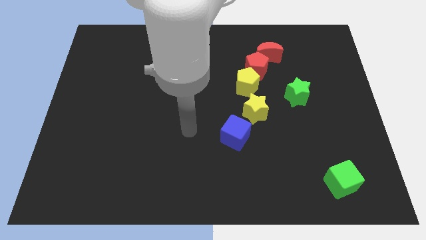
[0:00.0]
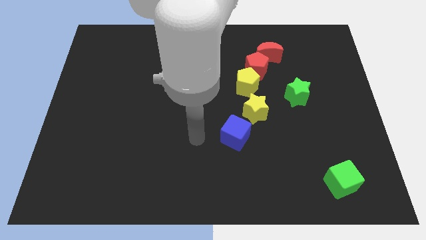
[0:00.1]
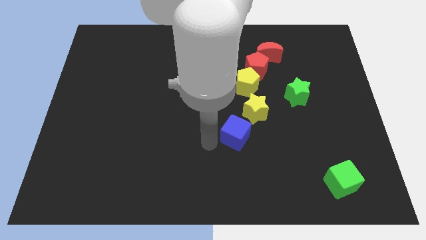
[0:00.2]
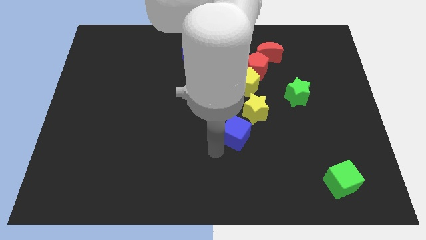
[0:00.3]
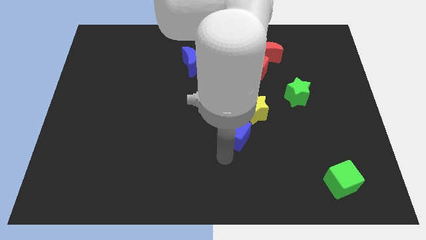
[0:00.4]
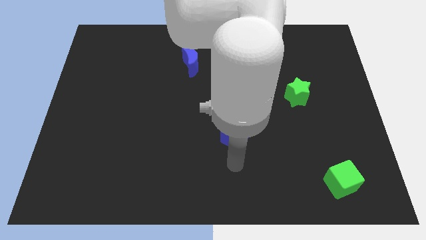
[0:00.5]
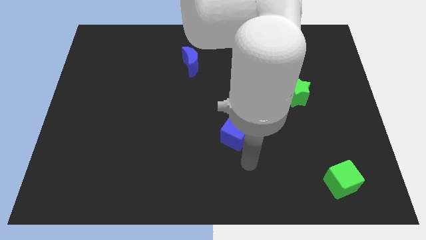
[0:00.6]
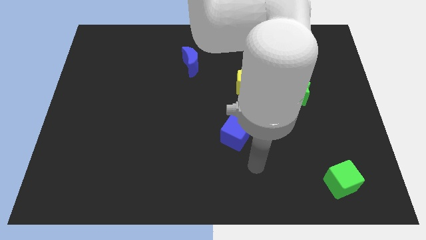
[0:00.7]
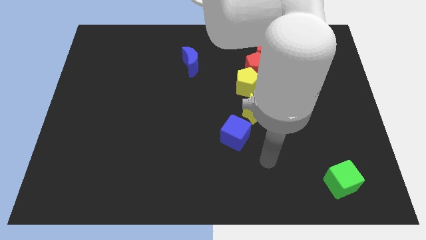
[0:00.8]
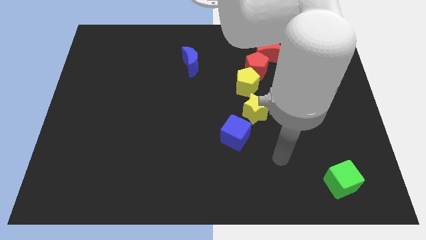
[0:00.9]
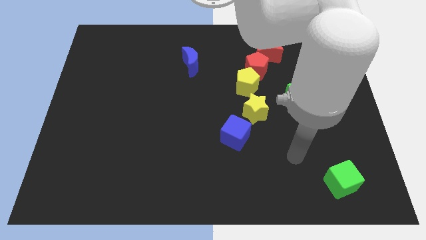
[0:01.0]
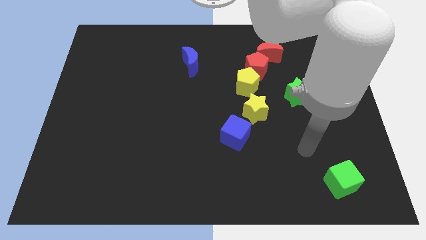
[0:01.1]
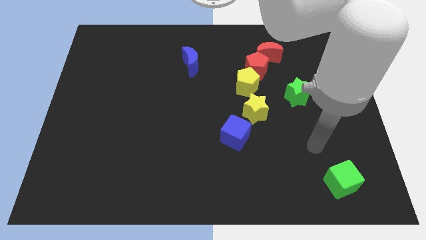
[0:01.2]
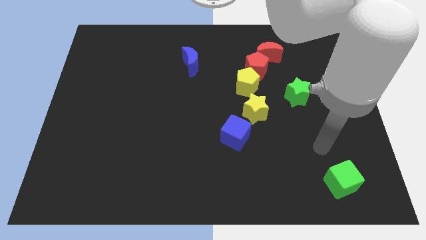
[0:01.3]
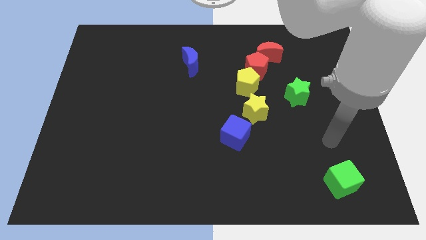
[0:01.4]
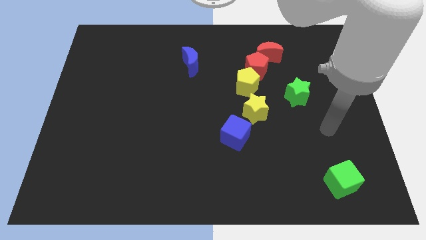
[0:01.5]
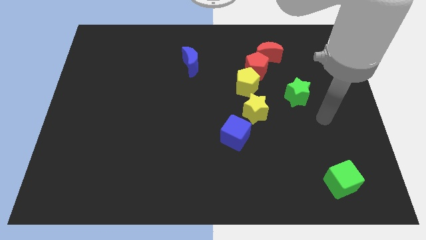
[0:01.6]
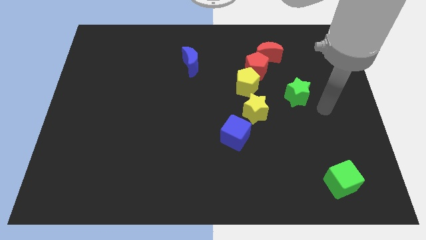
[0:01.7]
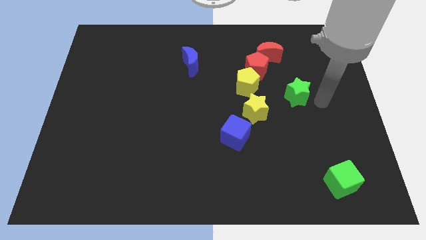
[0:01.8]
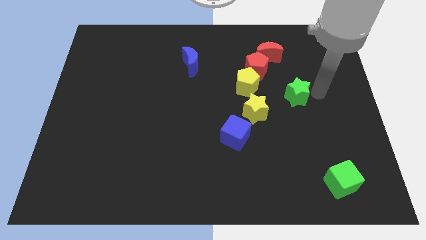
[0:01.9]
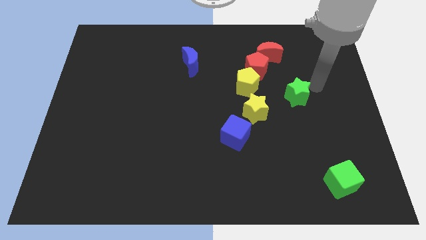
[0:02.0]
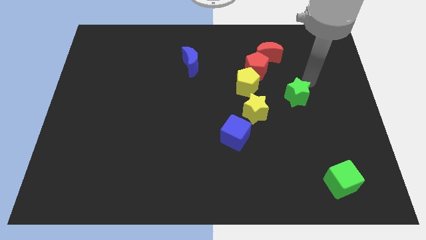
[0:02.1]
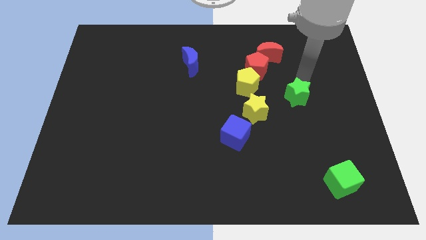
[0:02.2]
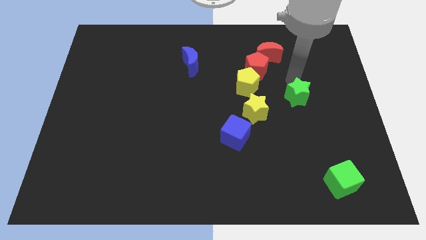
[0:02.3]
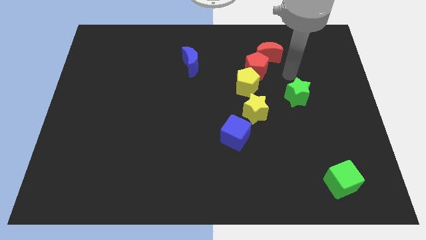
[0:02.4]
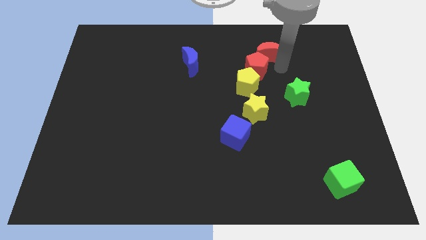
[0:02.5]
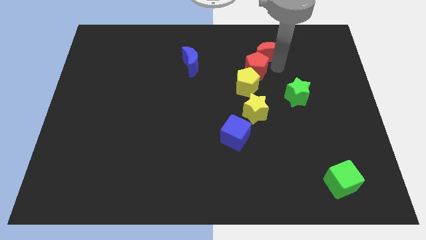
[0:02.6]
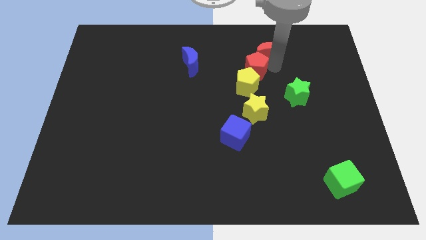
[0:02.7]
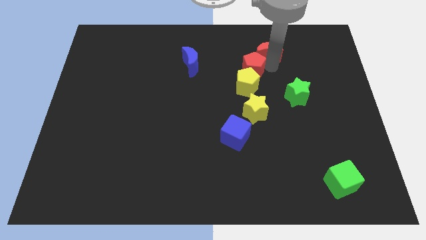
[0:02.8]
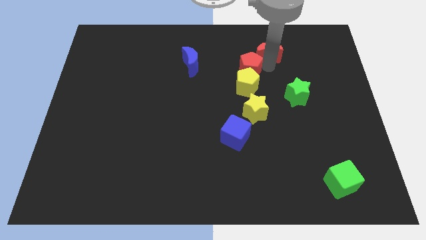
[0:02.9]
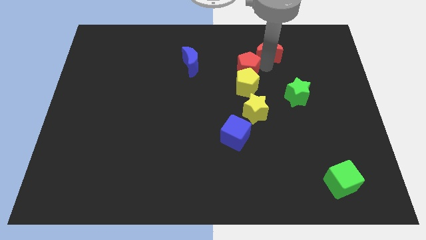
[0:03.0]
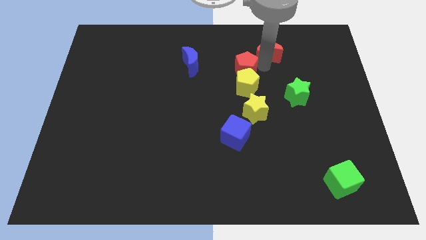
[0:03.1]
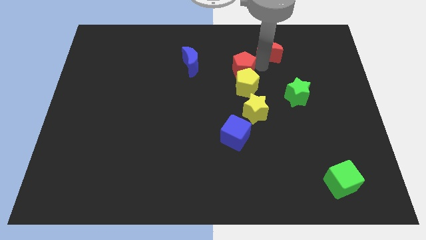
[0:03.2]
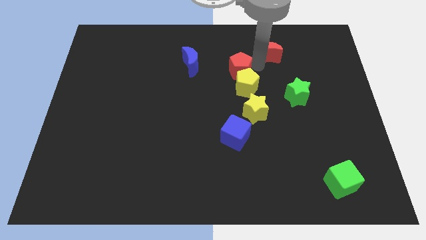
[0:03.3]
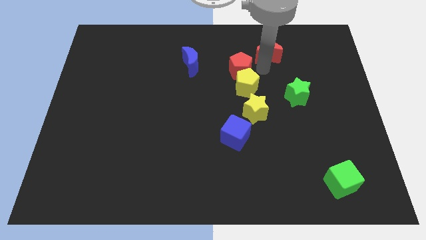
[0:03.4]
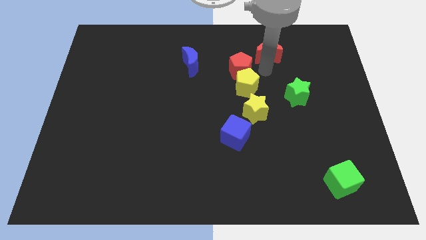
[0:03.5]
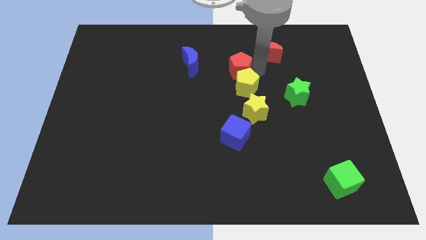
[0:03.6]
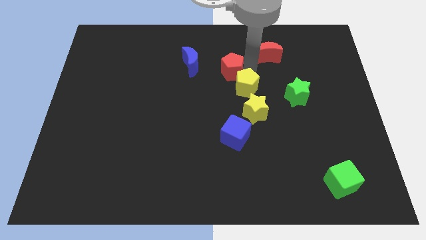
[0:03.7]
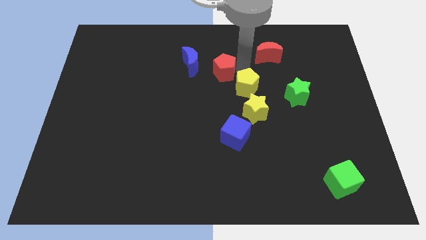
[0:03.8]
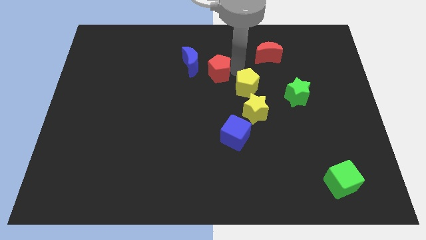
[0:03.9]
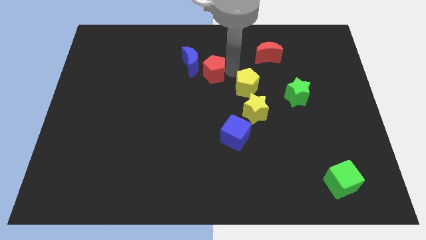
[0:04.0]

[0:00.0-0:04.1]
separate the red pentagon from the yellow pentagon and red moon

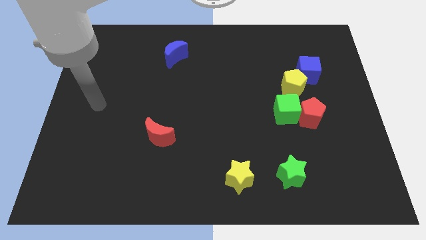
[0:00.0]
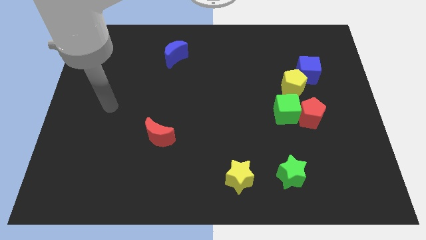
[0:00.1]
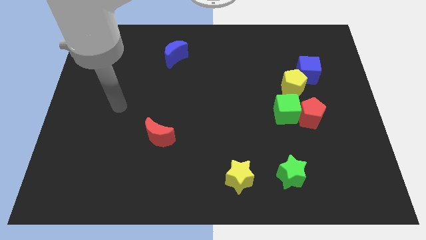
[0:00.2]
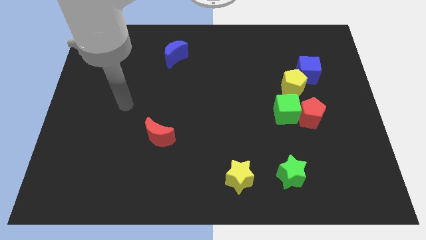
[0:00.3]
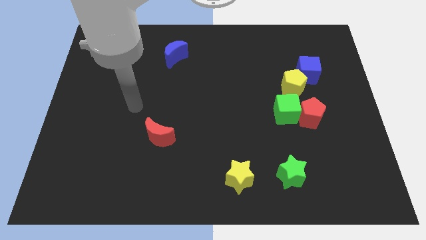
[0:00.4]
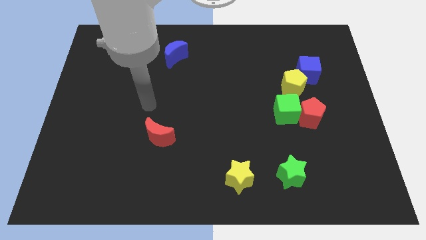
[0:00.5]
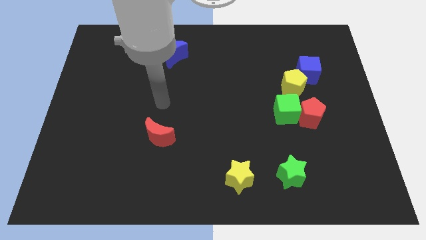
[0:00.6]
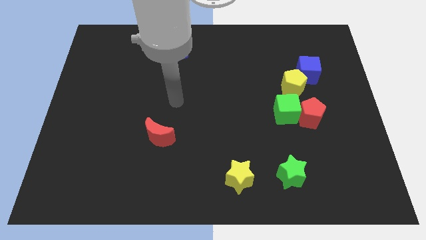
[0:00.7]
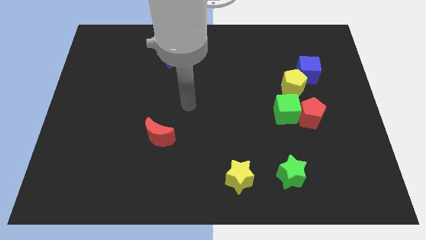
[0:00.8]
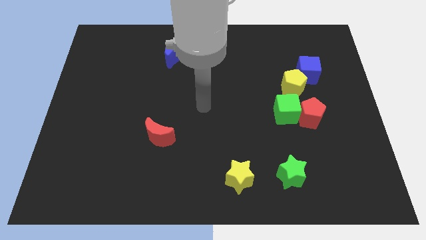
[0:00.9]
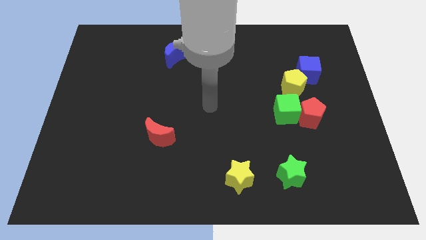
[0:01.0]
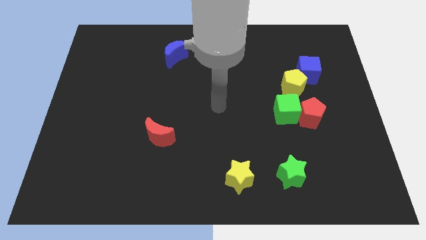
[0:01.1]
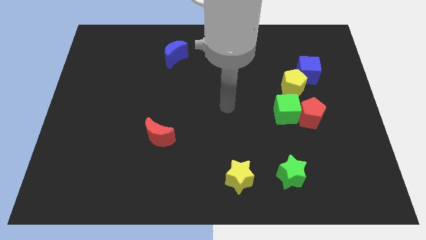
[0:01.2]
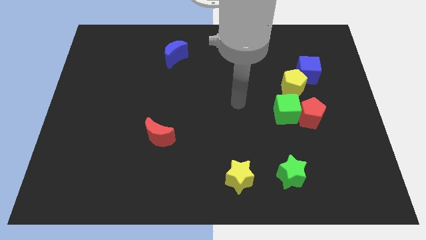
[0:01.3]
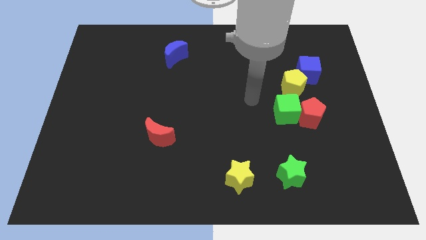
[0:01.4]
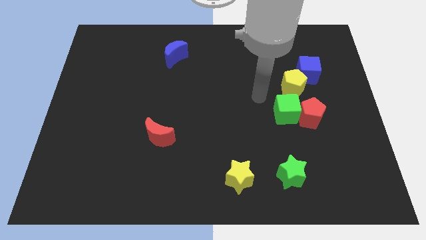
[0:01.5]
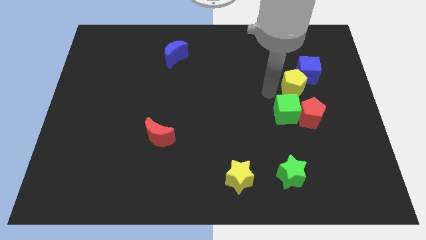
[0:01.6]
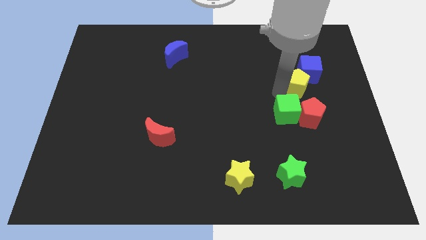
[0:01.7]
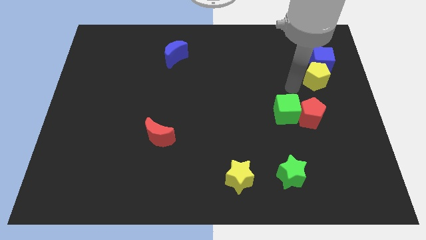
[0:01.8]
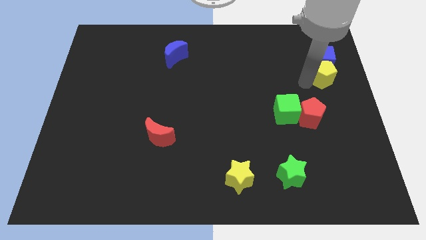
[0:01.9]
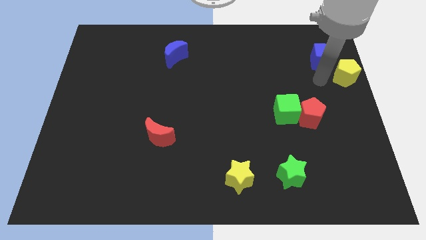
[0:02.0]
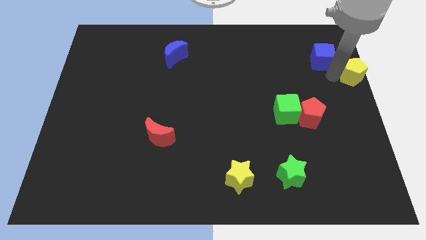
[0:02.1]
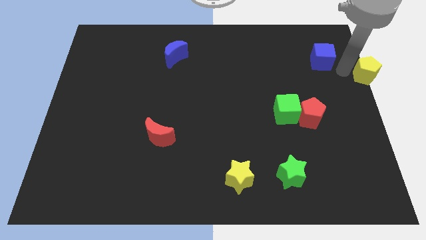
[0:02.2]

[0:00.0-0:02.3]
move the blue cube away from the yellow pentagon

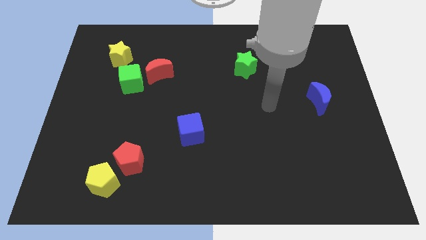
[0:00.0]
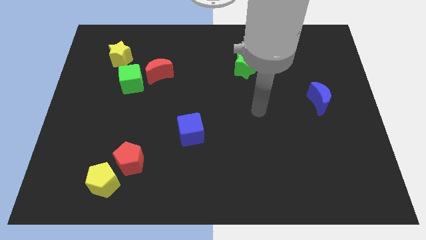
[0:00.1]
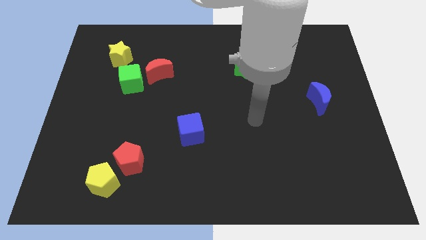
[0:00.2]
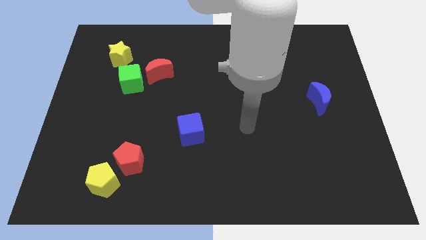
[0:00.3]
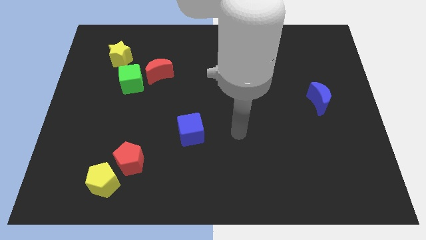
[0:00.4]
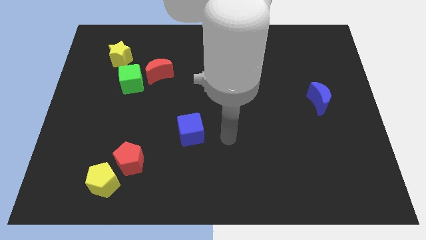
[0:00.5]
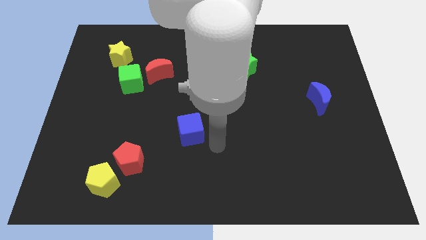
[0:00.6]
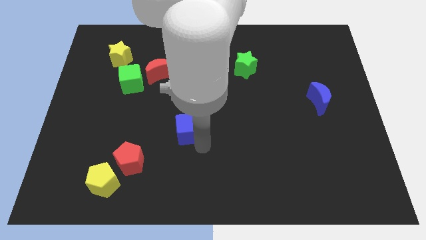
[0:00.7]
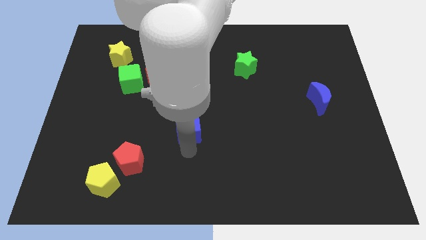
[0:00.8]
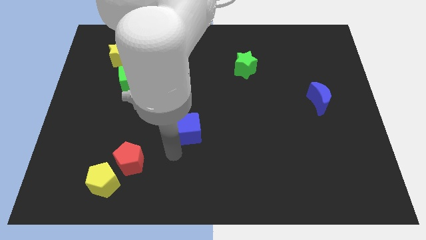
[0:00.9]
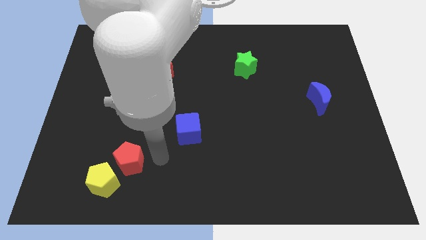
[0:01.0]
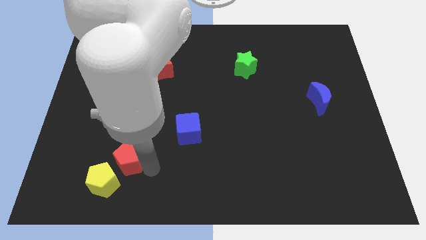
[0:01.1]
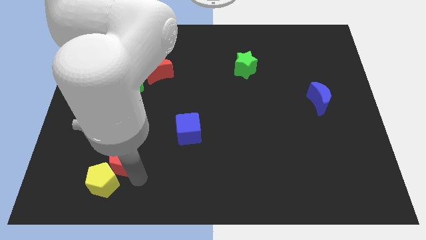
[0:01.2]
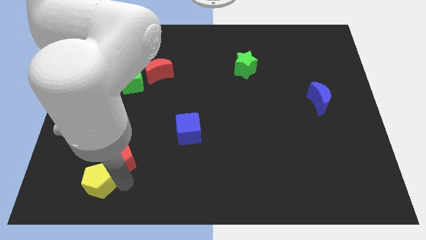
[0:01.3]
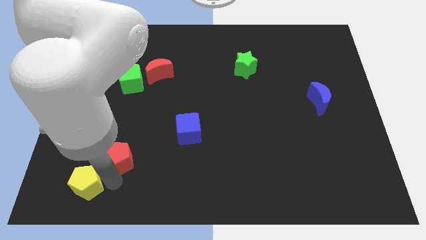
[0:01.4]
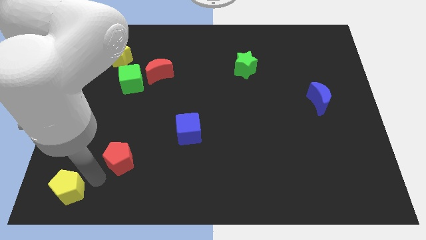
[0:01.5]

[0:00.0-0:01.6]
move the red pentagon away from the yellow pentagon

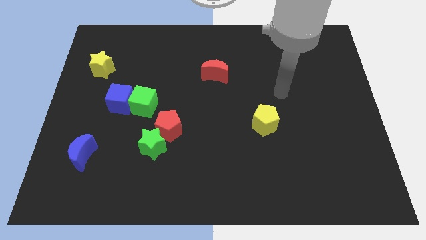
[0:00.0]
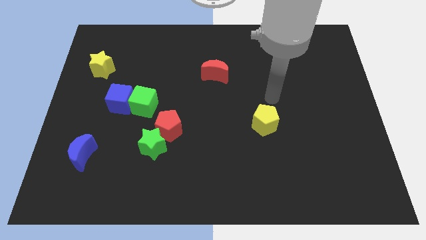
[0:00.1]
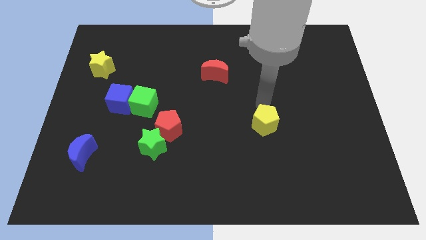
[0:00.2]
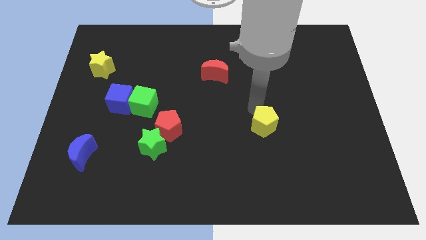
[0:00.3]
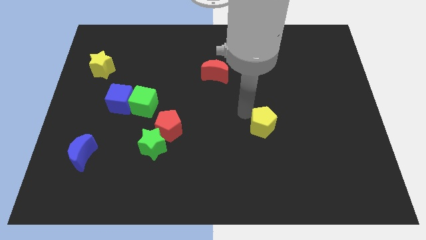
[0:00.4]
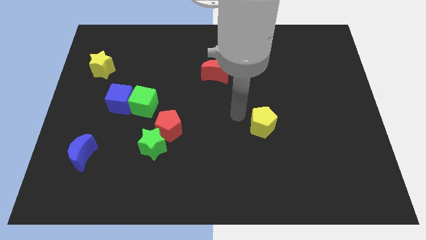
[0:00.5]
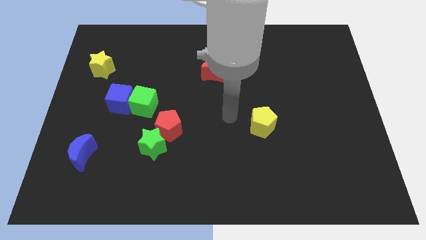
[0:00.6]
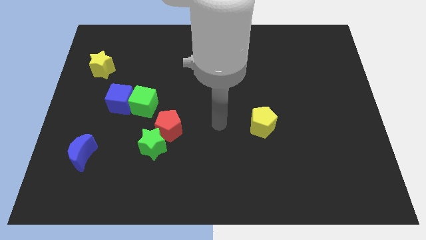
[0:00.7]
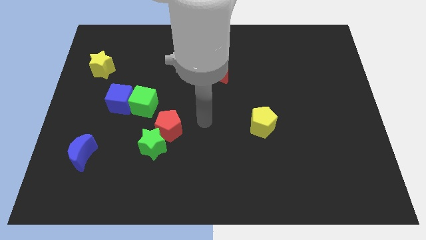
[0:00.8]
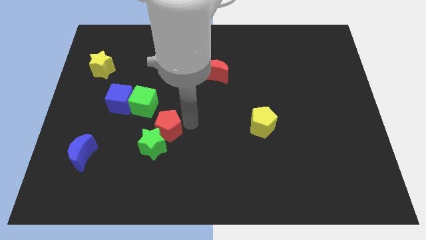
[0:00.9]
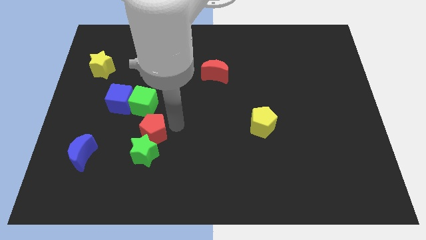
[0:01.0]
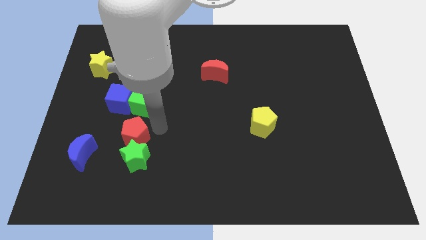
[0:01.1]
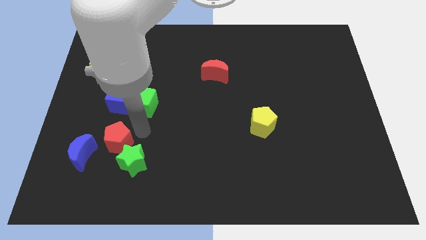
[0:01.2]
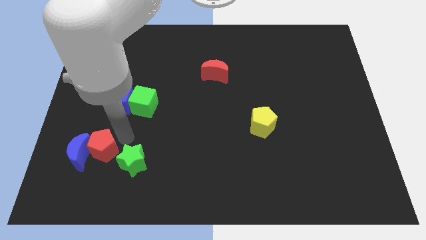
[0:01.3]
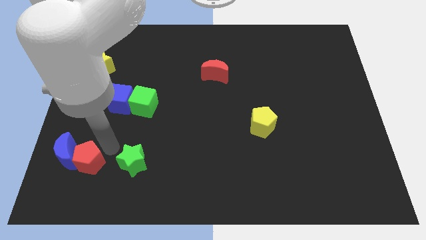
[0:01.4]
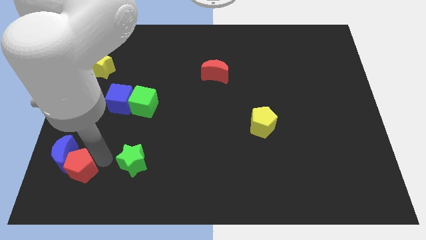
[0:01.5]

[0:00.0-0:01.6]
move the green star away from the red pentagon

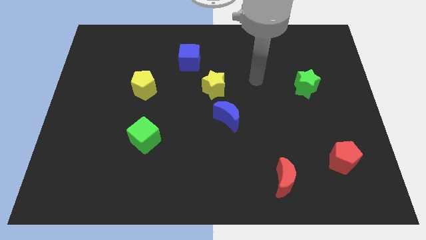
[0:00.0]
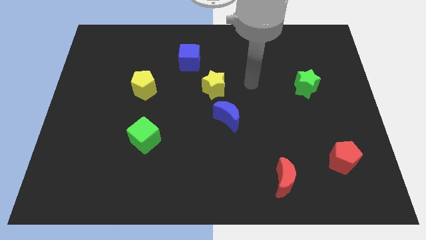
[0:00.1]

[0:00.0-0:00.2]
pull the blue moon apart from the yellow star
